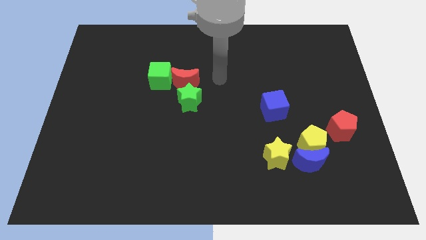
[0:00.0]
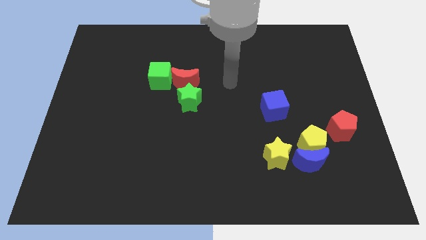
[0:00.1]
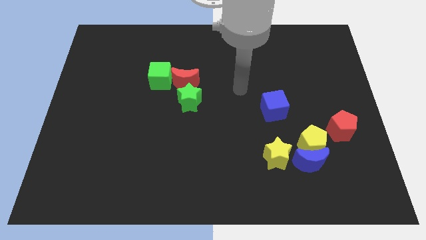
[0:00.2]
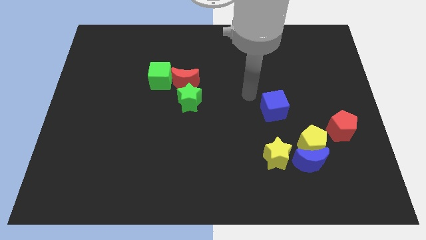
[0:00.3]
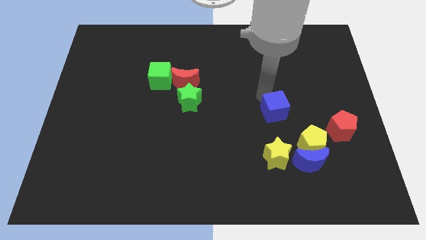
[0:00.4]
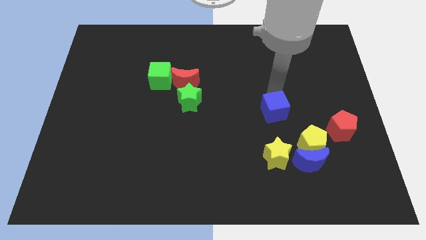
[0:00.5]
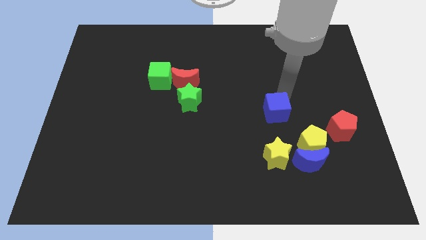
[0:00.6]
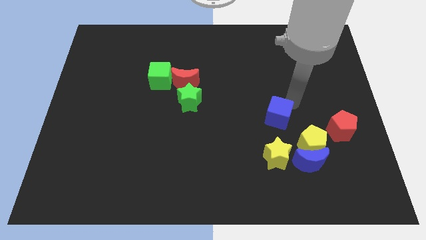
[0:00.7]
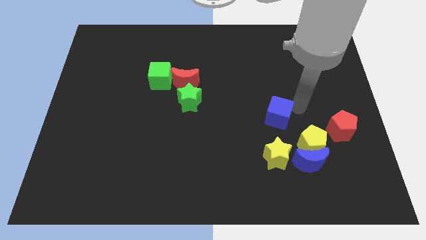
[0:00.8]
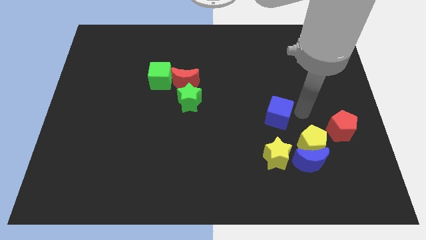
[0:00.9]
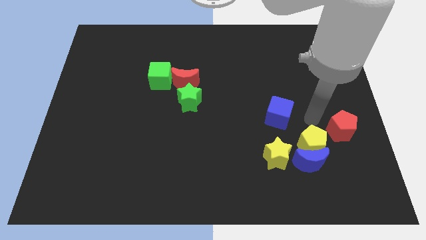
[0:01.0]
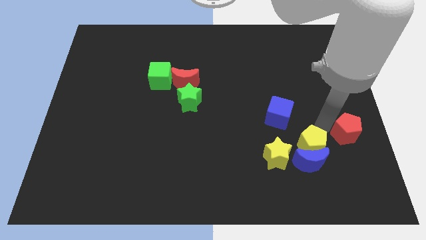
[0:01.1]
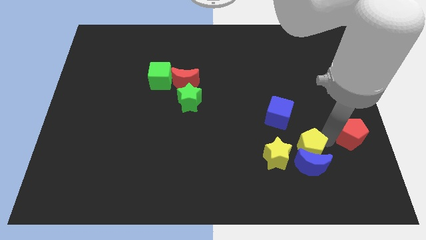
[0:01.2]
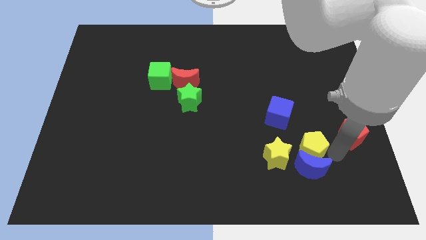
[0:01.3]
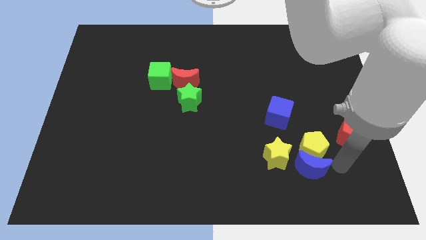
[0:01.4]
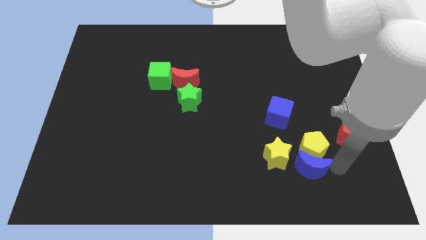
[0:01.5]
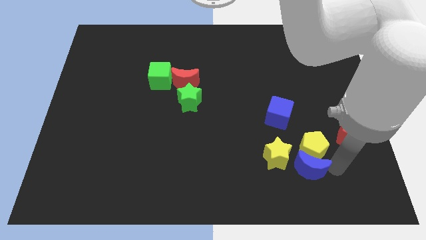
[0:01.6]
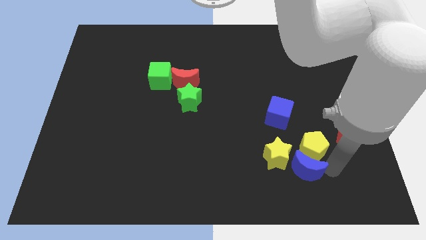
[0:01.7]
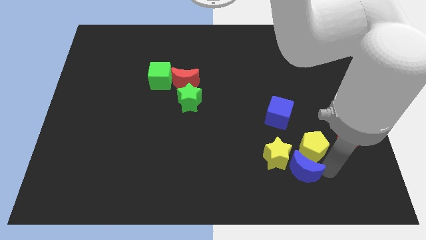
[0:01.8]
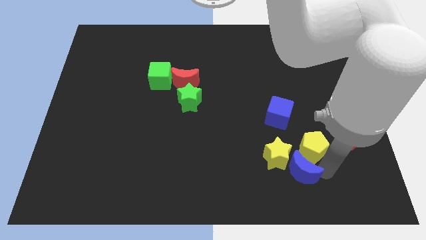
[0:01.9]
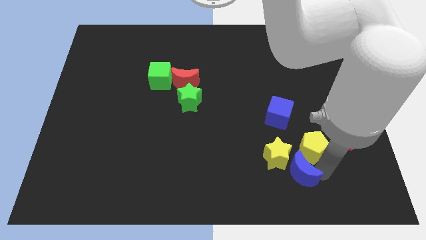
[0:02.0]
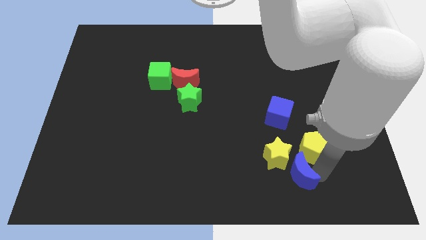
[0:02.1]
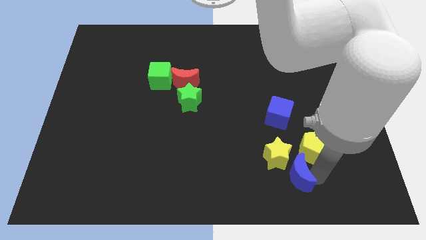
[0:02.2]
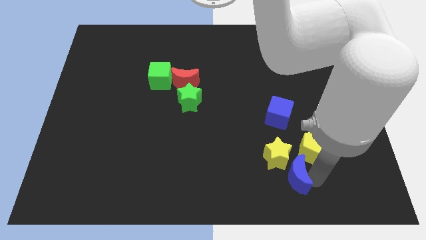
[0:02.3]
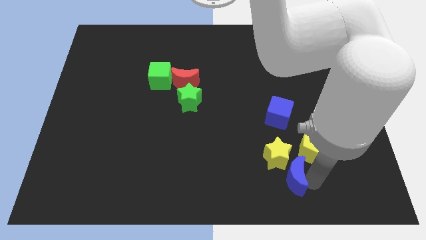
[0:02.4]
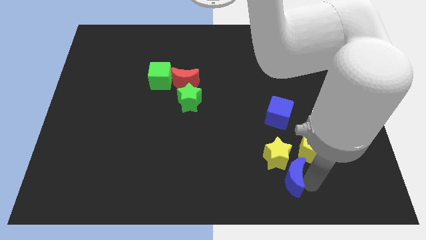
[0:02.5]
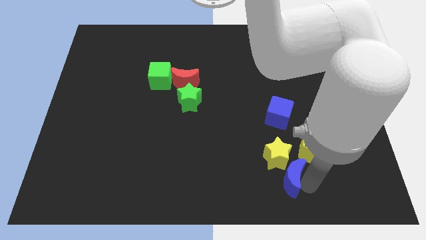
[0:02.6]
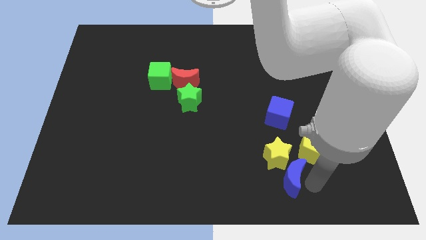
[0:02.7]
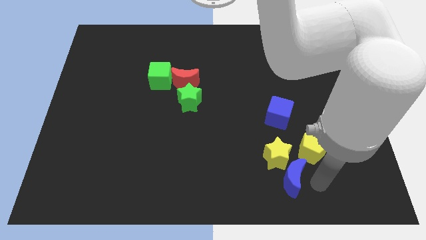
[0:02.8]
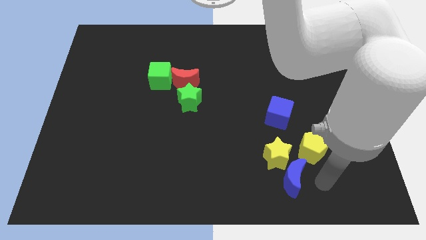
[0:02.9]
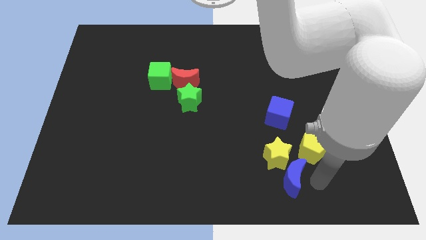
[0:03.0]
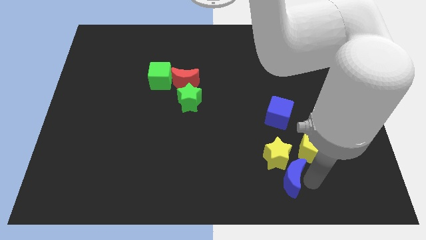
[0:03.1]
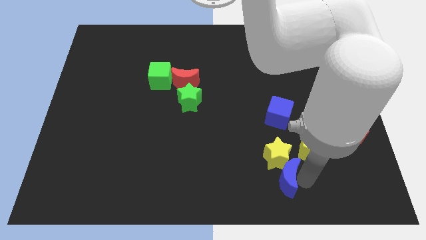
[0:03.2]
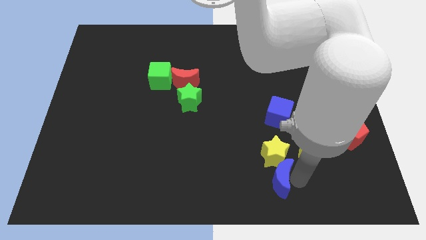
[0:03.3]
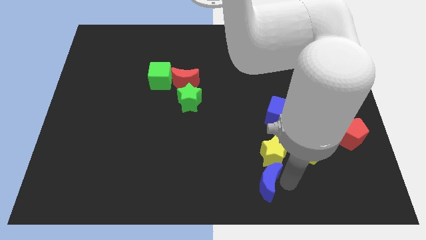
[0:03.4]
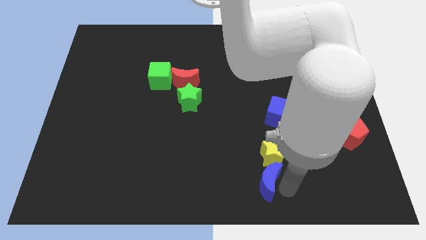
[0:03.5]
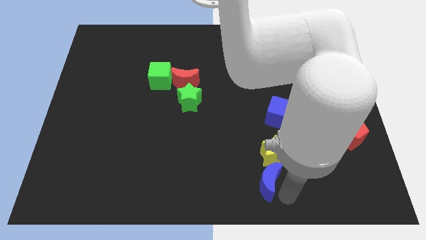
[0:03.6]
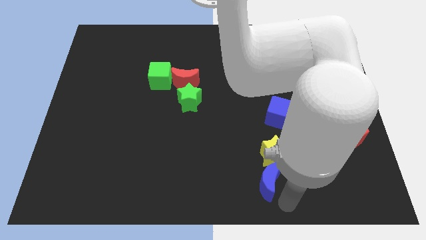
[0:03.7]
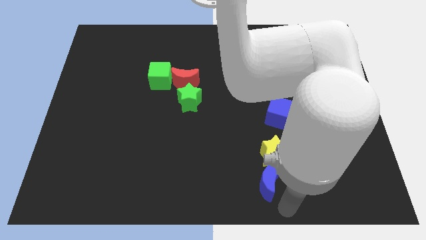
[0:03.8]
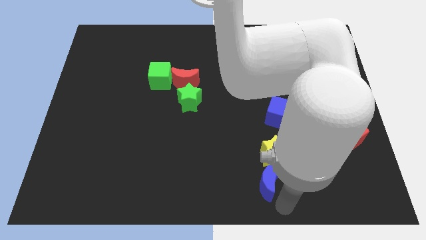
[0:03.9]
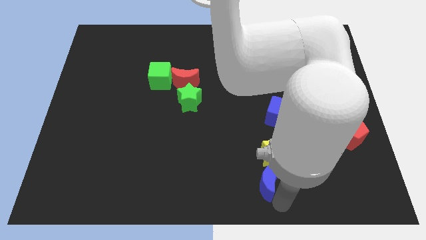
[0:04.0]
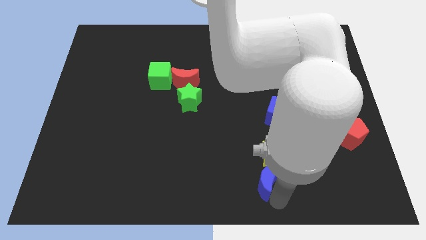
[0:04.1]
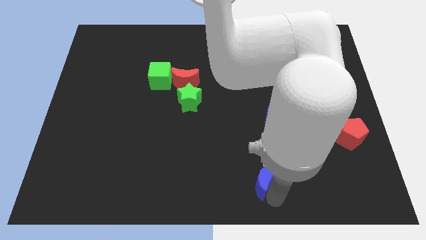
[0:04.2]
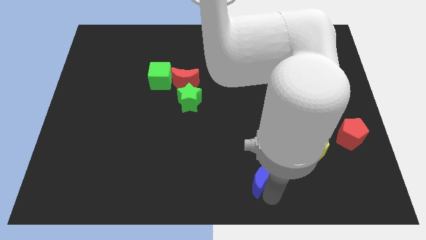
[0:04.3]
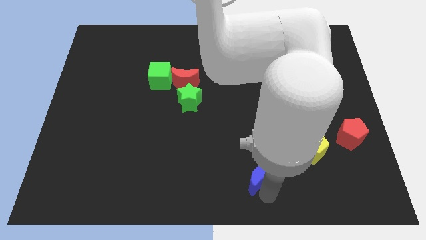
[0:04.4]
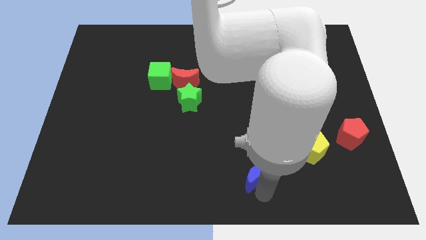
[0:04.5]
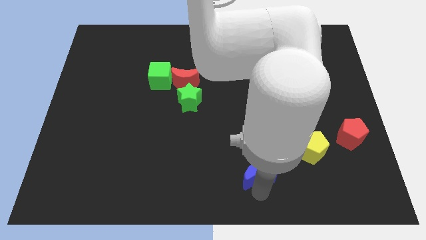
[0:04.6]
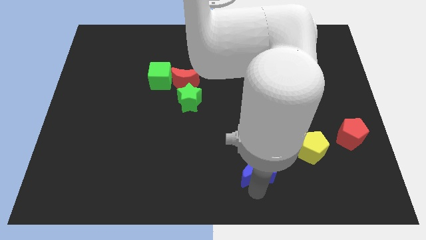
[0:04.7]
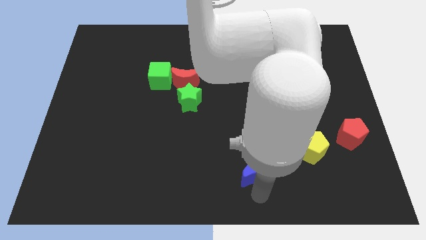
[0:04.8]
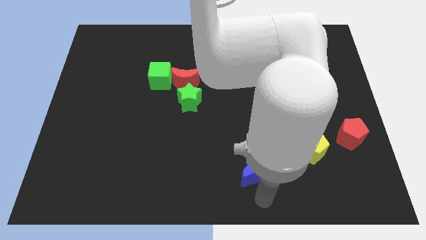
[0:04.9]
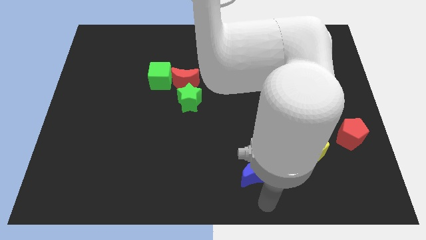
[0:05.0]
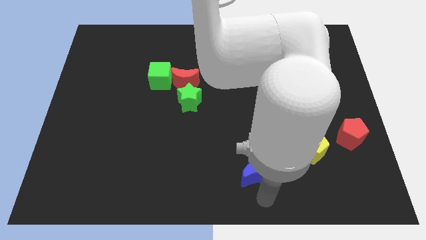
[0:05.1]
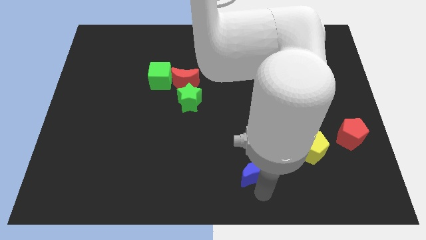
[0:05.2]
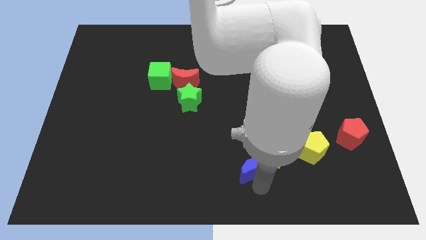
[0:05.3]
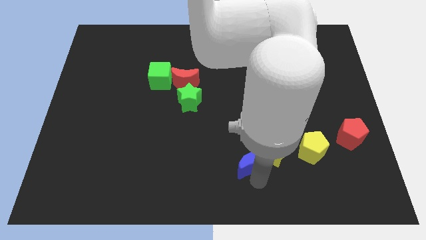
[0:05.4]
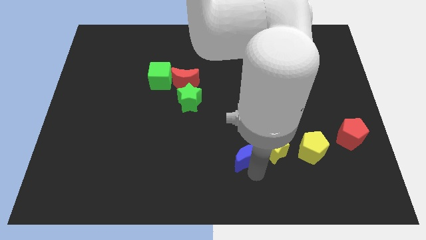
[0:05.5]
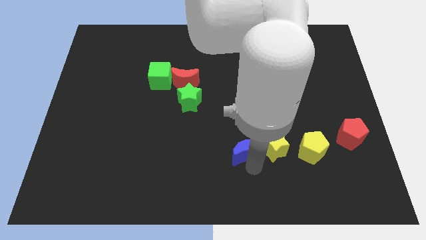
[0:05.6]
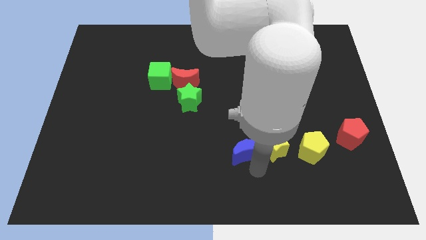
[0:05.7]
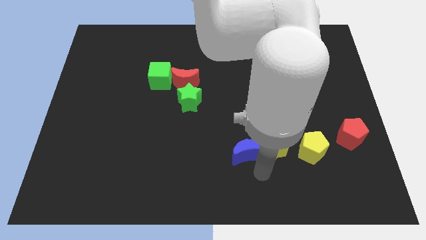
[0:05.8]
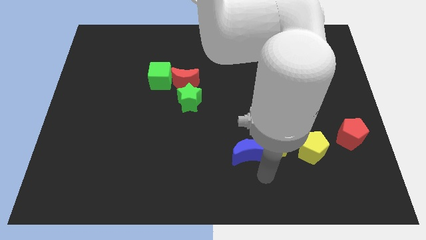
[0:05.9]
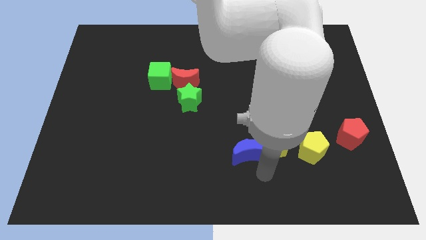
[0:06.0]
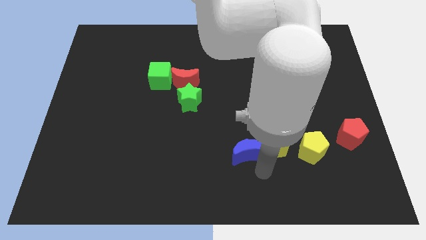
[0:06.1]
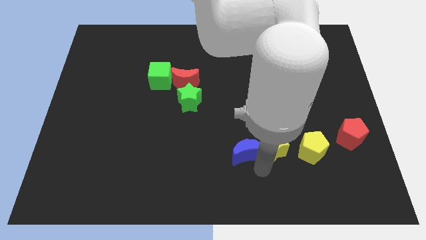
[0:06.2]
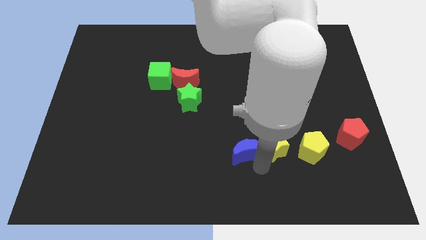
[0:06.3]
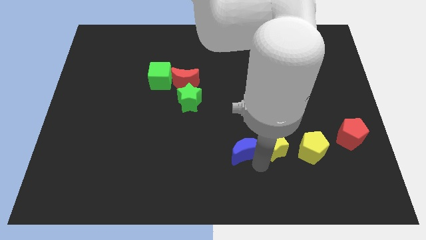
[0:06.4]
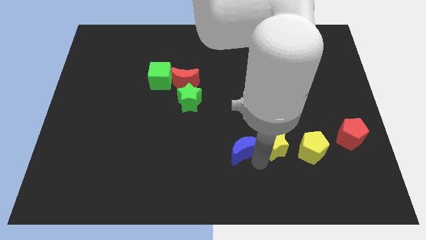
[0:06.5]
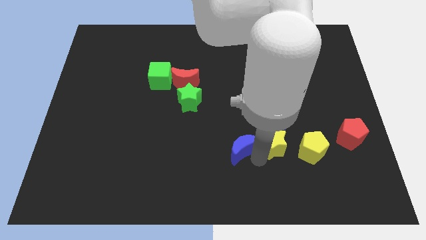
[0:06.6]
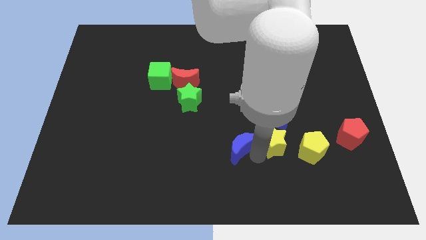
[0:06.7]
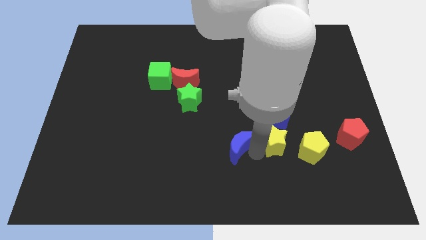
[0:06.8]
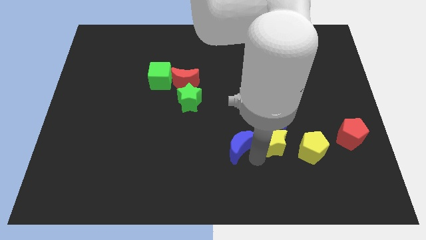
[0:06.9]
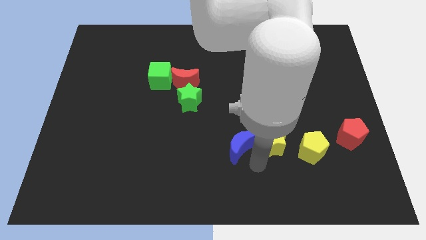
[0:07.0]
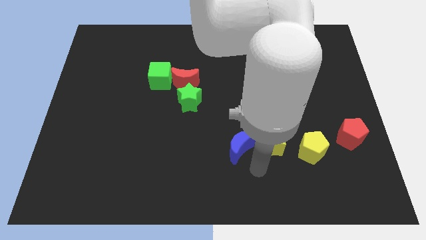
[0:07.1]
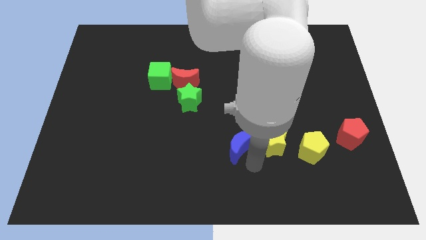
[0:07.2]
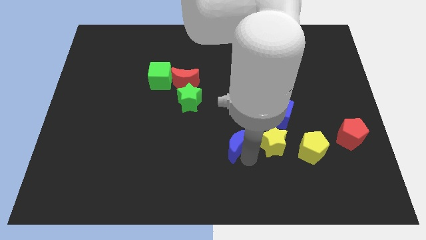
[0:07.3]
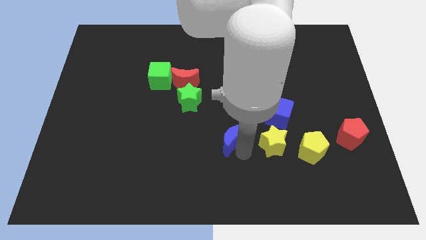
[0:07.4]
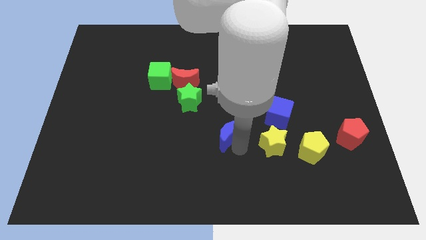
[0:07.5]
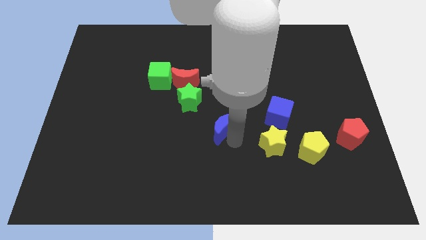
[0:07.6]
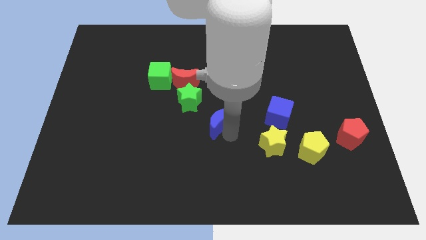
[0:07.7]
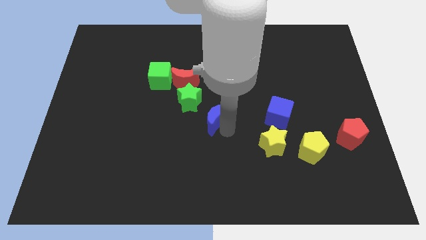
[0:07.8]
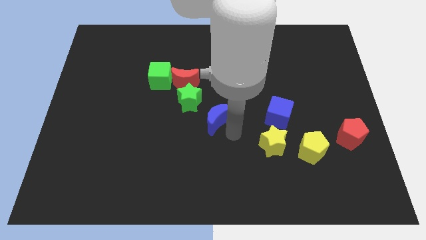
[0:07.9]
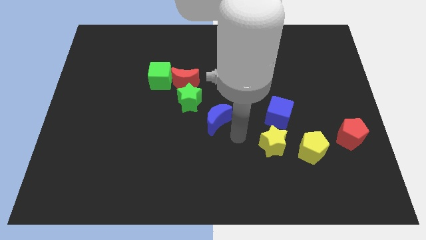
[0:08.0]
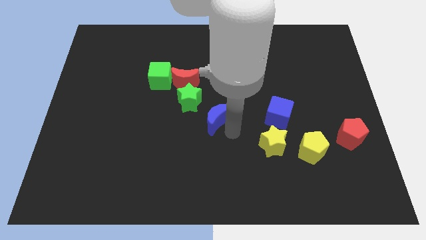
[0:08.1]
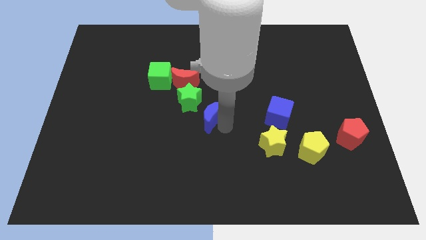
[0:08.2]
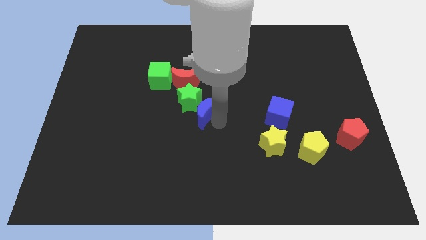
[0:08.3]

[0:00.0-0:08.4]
put the blue moon next to the green star
